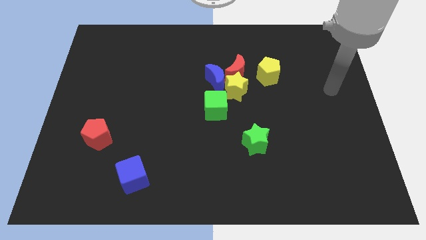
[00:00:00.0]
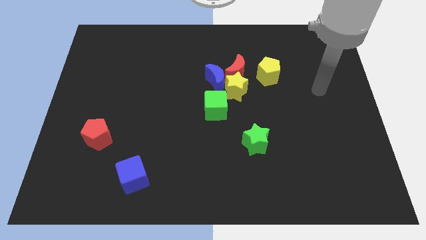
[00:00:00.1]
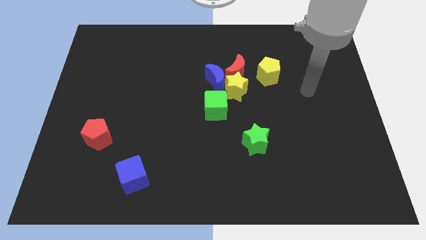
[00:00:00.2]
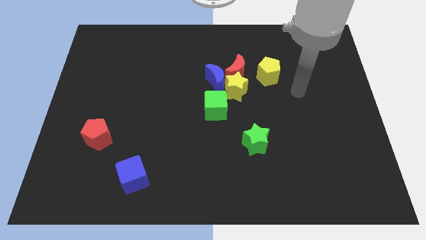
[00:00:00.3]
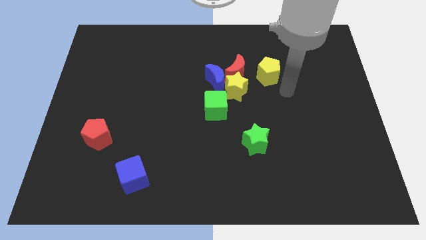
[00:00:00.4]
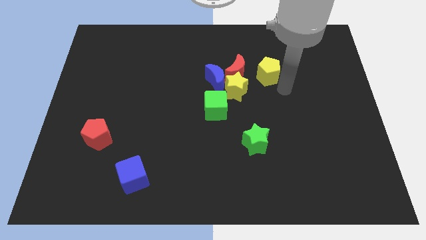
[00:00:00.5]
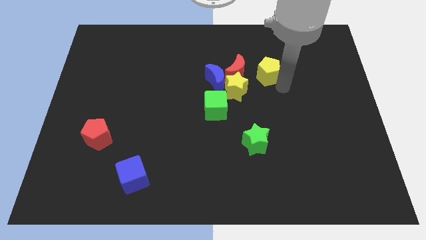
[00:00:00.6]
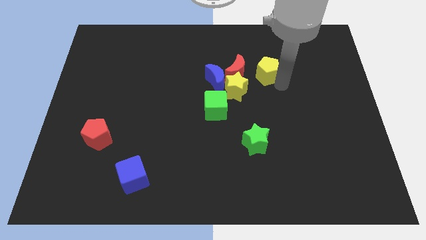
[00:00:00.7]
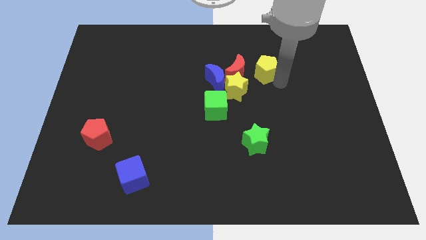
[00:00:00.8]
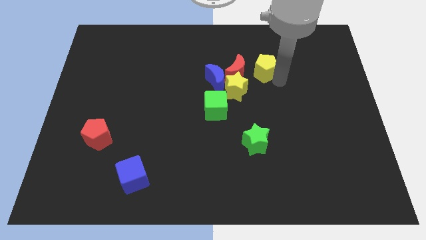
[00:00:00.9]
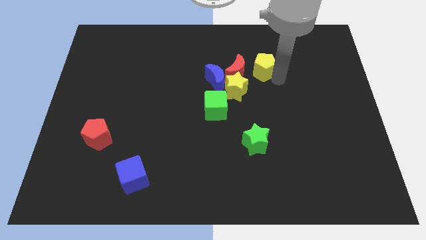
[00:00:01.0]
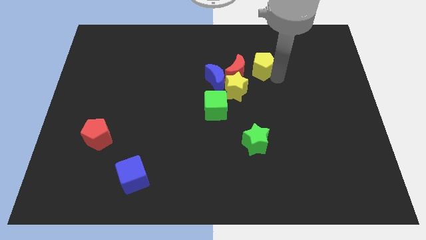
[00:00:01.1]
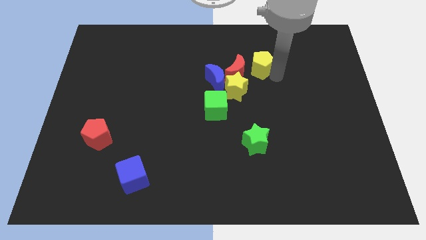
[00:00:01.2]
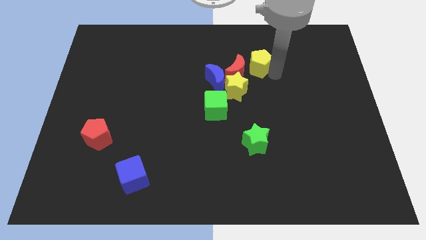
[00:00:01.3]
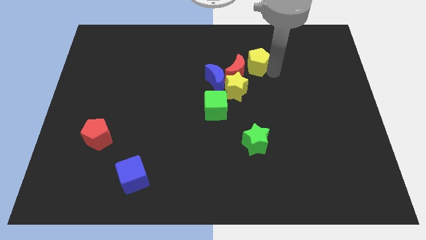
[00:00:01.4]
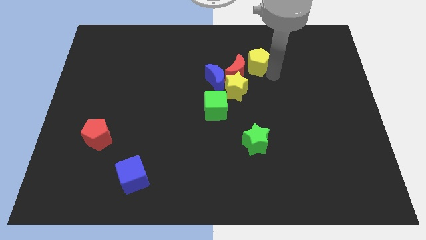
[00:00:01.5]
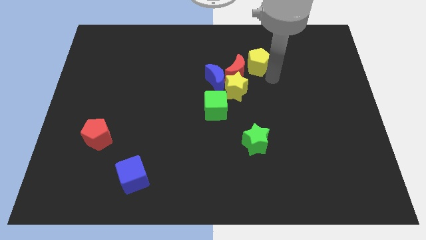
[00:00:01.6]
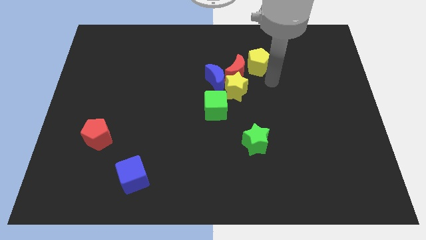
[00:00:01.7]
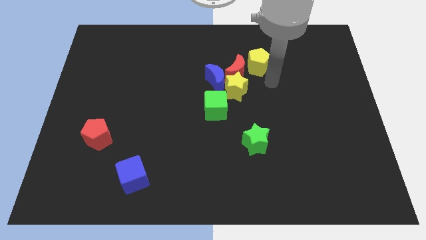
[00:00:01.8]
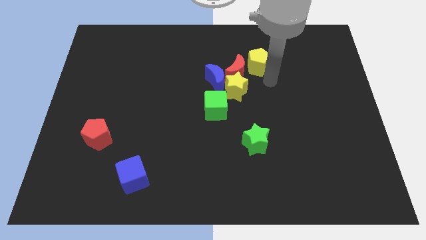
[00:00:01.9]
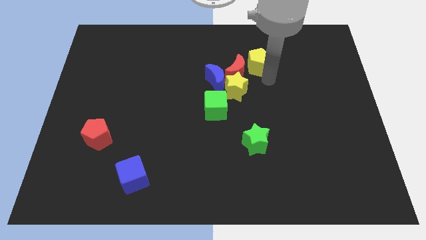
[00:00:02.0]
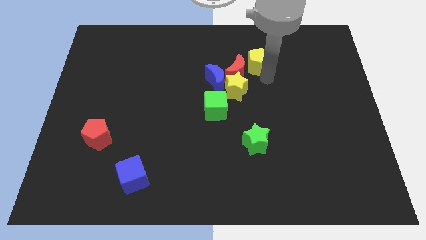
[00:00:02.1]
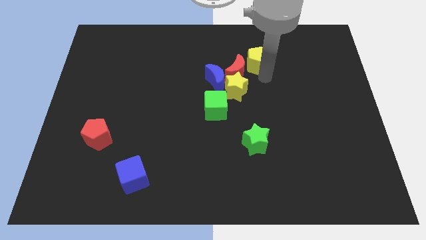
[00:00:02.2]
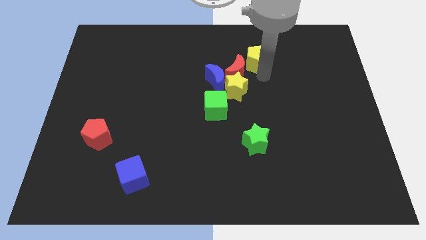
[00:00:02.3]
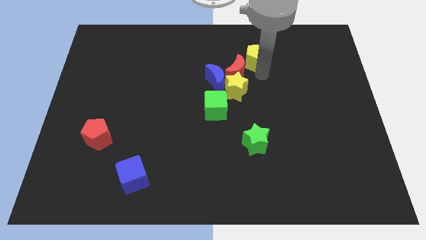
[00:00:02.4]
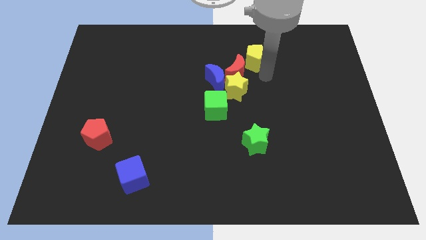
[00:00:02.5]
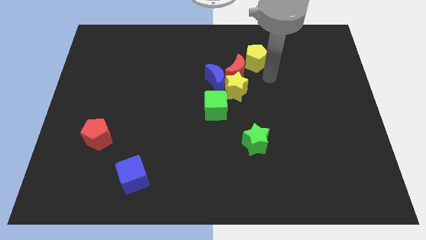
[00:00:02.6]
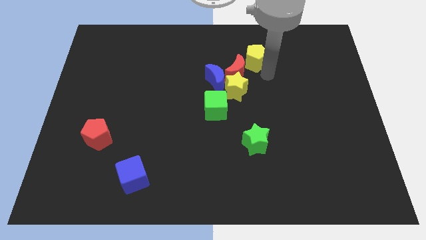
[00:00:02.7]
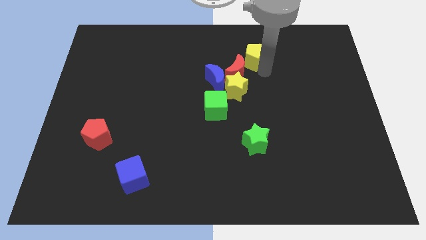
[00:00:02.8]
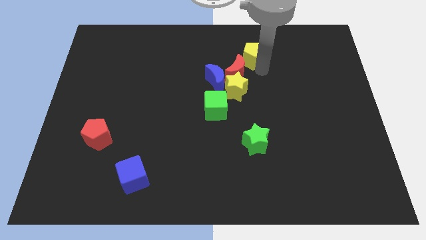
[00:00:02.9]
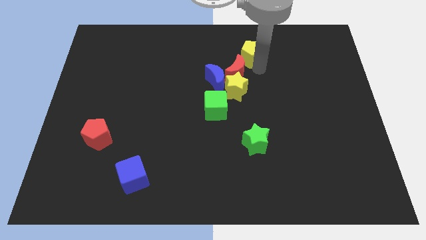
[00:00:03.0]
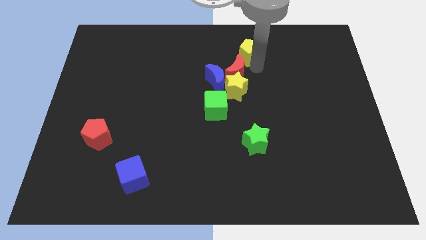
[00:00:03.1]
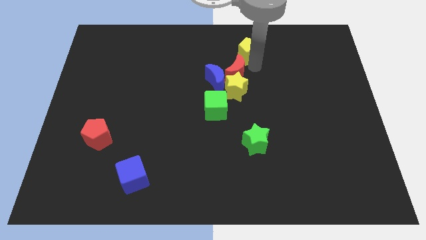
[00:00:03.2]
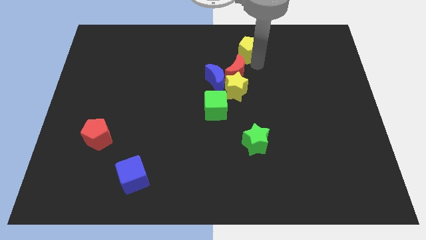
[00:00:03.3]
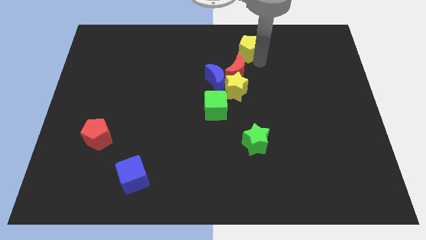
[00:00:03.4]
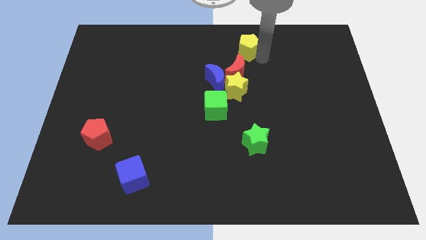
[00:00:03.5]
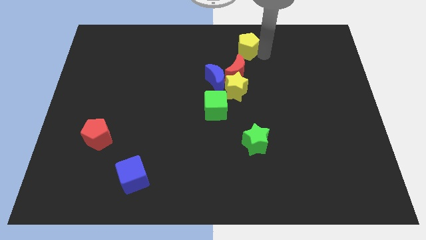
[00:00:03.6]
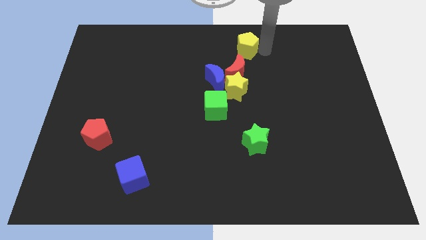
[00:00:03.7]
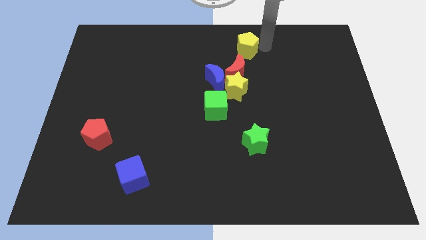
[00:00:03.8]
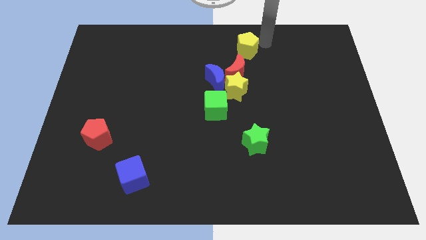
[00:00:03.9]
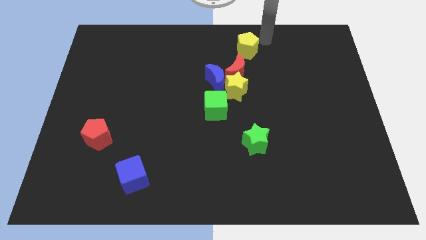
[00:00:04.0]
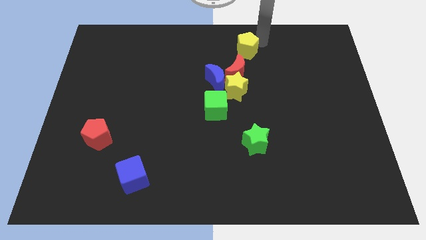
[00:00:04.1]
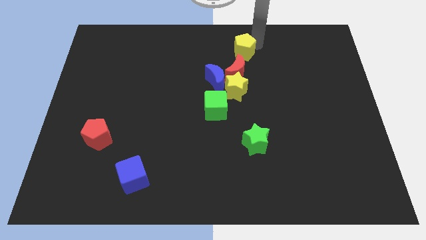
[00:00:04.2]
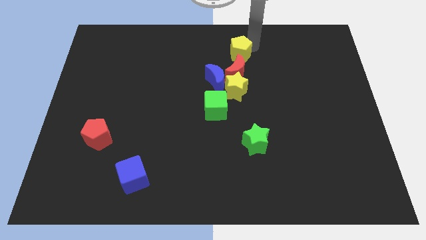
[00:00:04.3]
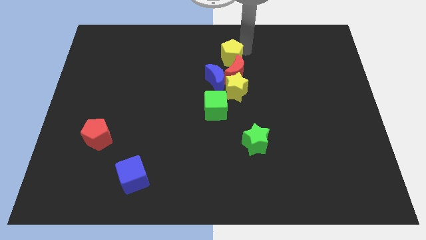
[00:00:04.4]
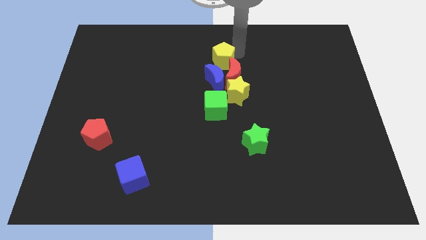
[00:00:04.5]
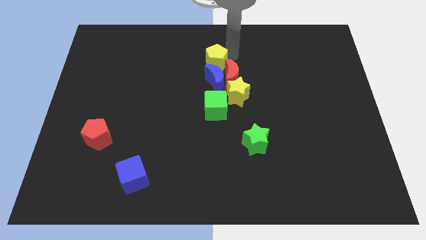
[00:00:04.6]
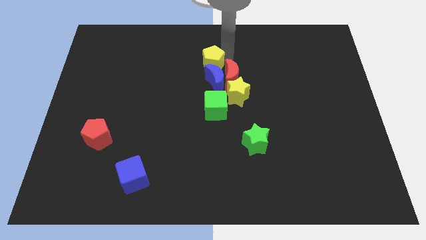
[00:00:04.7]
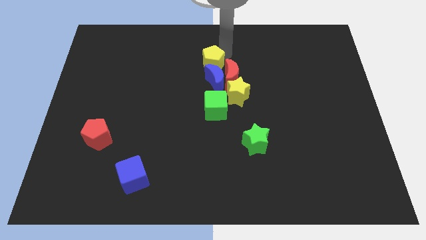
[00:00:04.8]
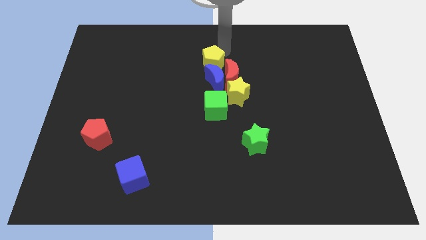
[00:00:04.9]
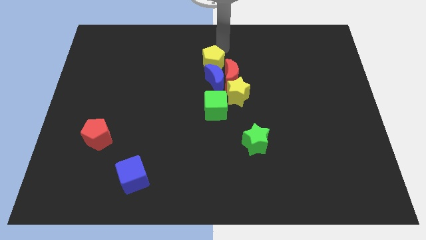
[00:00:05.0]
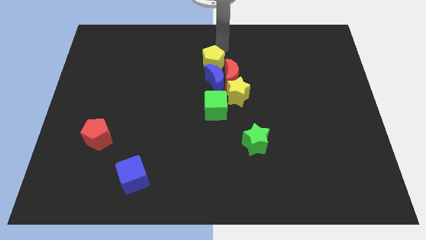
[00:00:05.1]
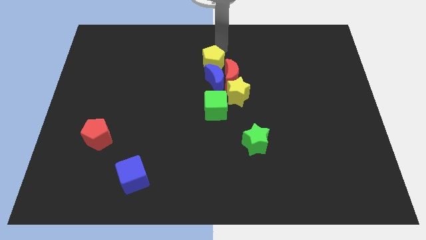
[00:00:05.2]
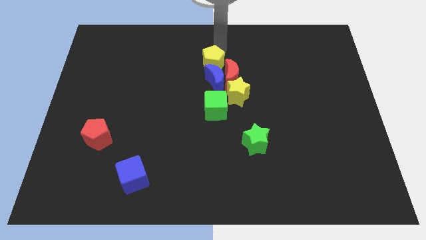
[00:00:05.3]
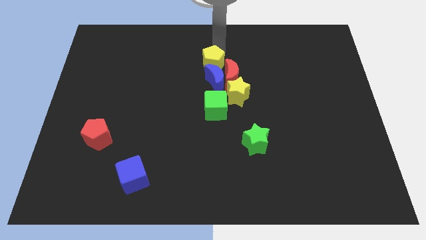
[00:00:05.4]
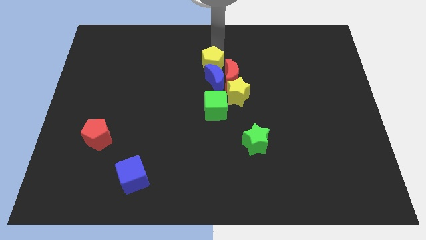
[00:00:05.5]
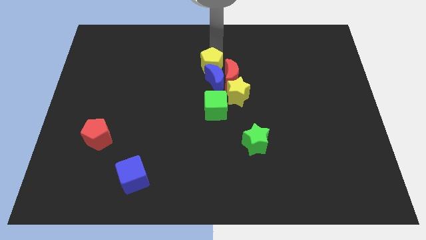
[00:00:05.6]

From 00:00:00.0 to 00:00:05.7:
move the yellow pentagon to the blue moon

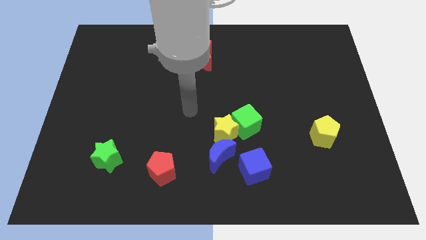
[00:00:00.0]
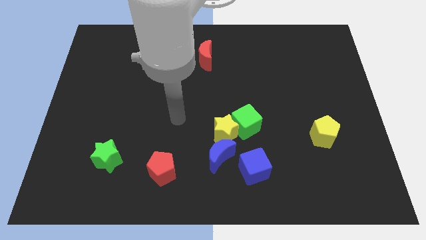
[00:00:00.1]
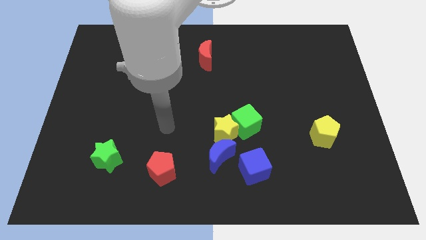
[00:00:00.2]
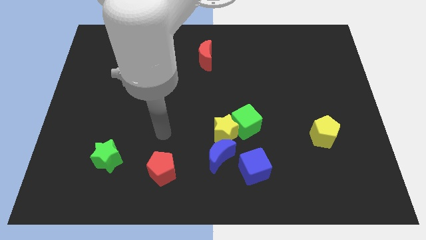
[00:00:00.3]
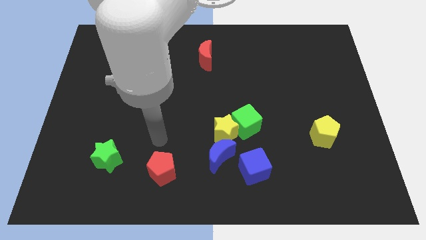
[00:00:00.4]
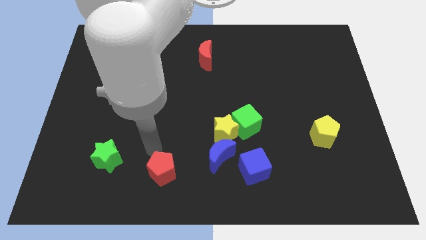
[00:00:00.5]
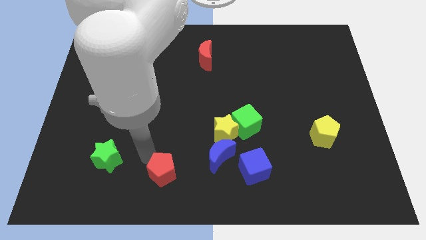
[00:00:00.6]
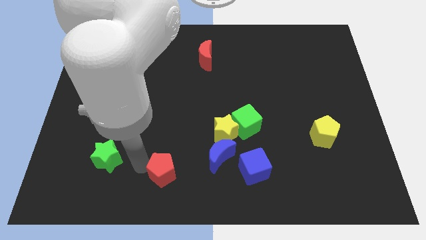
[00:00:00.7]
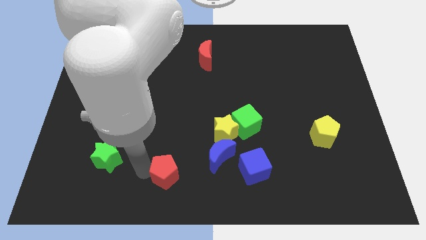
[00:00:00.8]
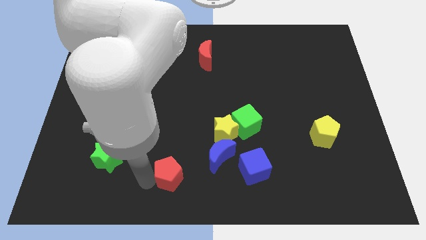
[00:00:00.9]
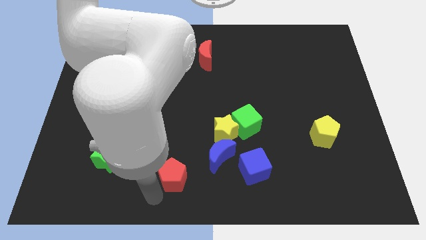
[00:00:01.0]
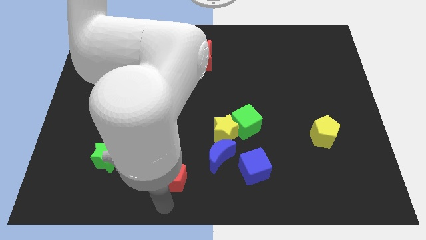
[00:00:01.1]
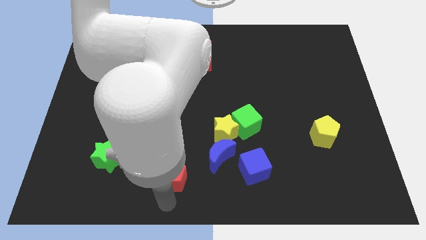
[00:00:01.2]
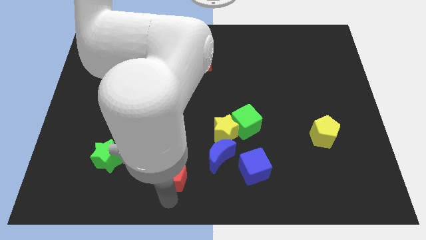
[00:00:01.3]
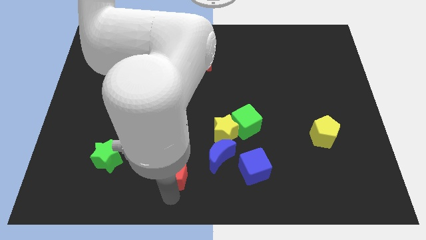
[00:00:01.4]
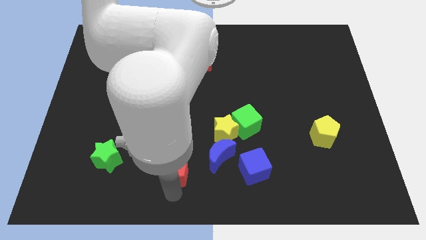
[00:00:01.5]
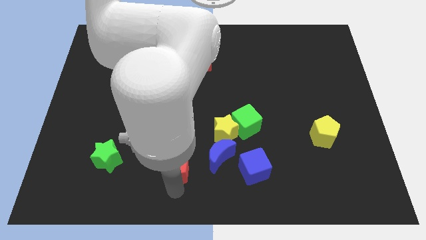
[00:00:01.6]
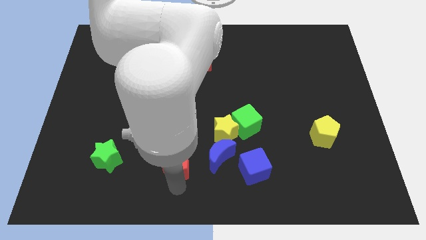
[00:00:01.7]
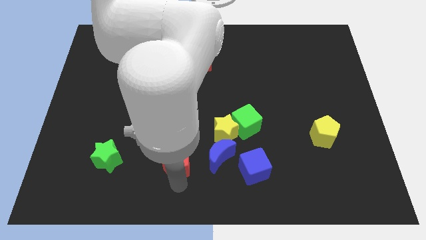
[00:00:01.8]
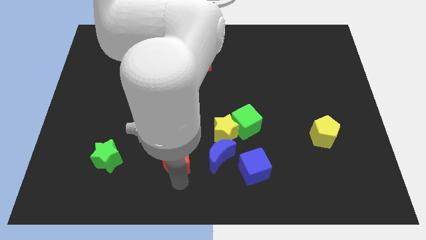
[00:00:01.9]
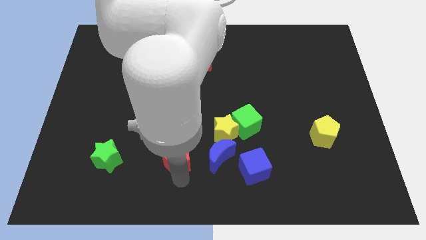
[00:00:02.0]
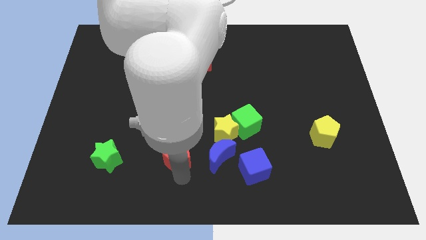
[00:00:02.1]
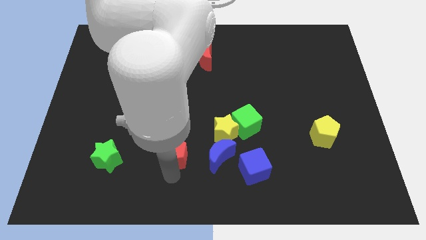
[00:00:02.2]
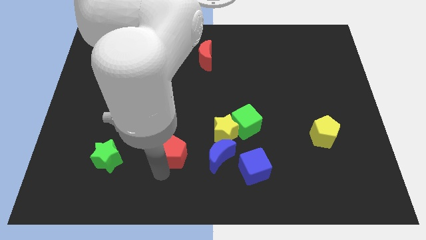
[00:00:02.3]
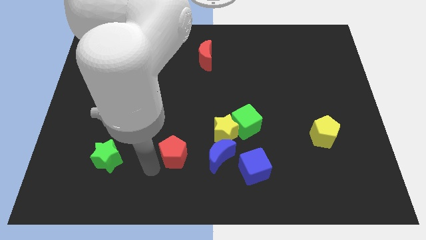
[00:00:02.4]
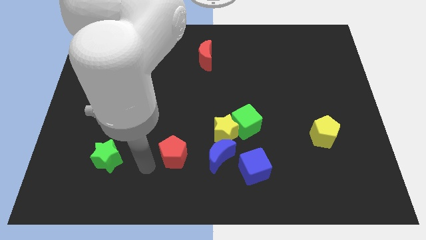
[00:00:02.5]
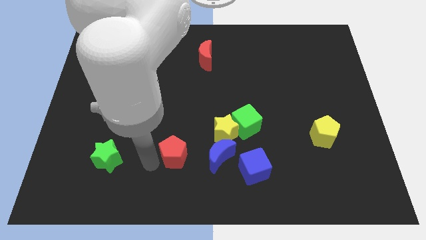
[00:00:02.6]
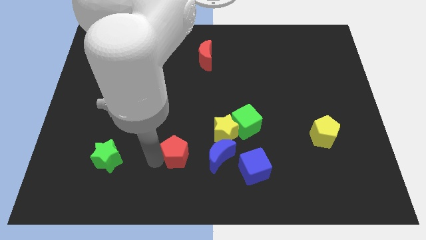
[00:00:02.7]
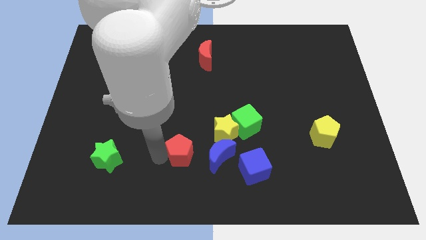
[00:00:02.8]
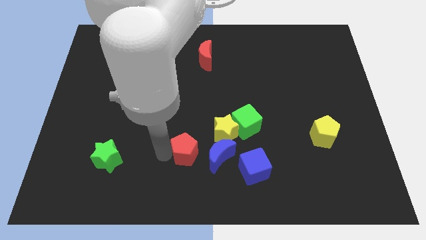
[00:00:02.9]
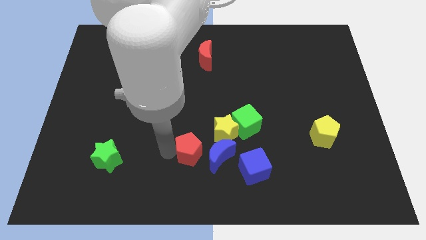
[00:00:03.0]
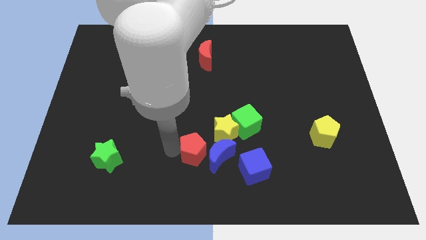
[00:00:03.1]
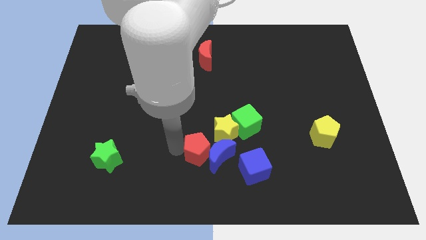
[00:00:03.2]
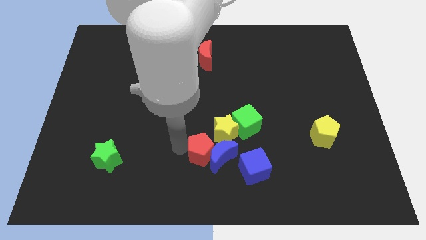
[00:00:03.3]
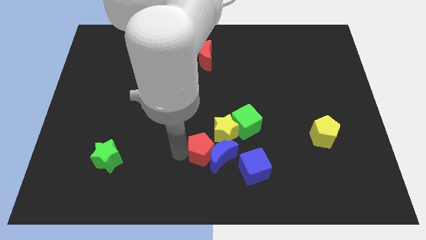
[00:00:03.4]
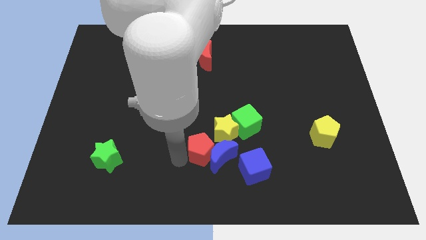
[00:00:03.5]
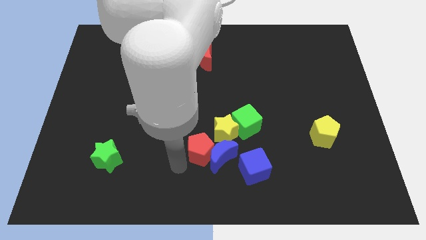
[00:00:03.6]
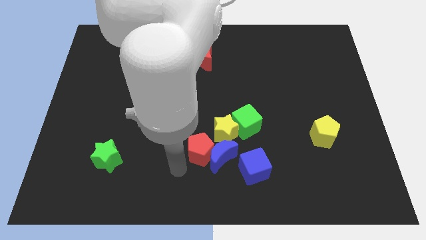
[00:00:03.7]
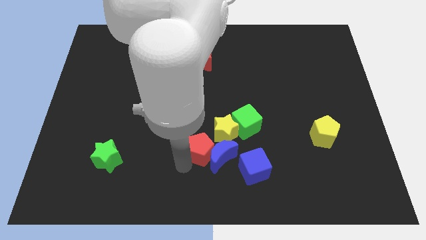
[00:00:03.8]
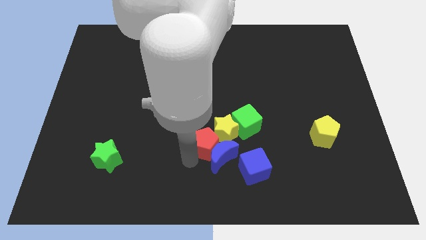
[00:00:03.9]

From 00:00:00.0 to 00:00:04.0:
slide the red pentagon towards the yellow star
